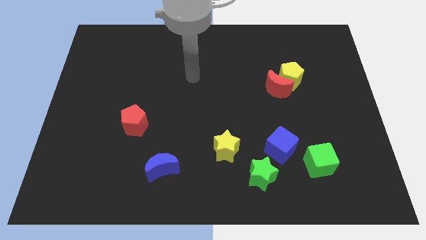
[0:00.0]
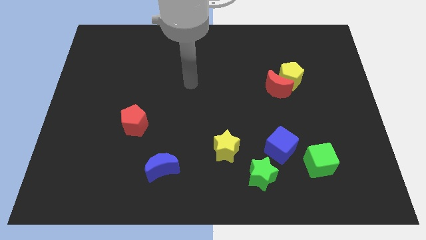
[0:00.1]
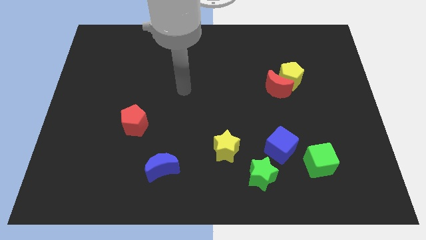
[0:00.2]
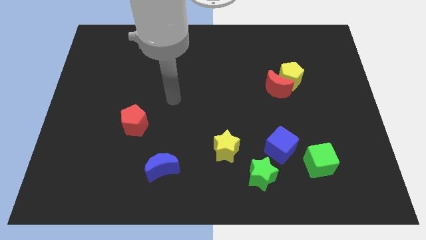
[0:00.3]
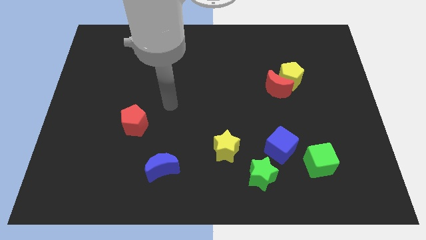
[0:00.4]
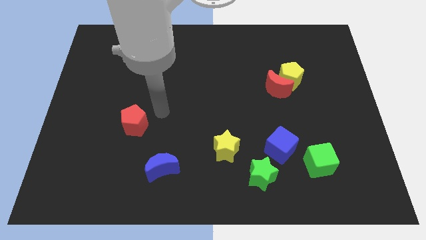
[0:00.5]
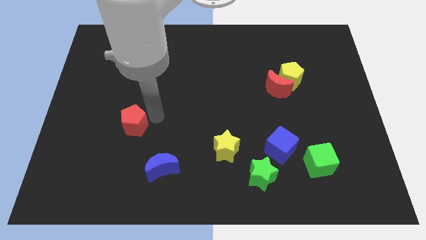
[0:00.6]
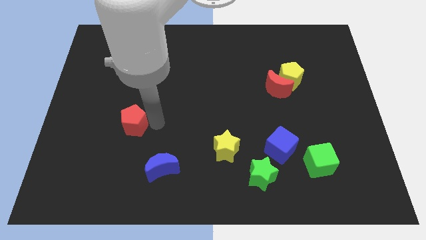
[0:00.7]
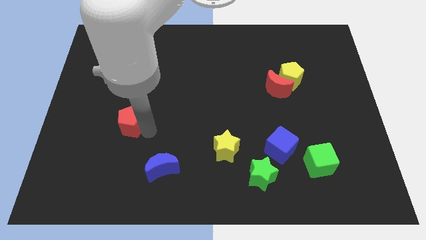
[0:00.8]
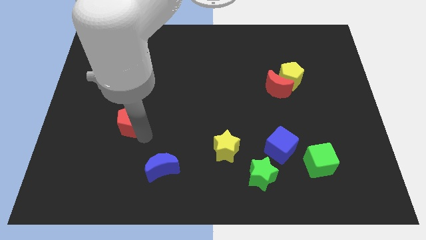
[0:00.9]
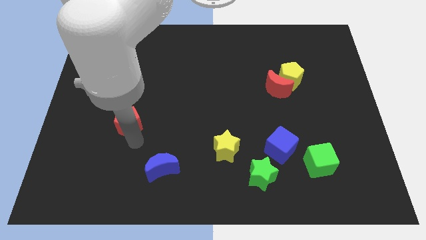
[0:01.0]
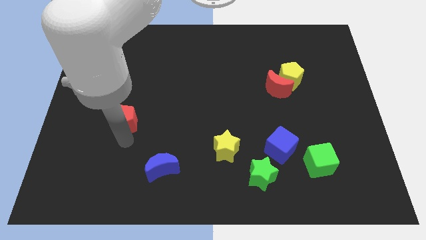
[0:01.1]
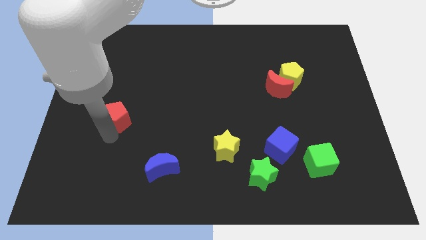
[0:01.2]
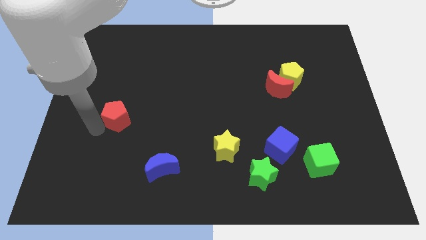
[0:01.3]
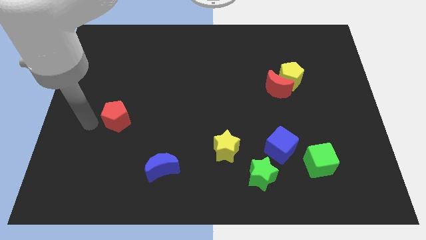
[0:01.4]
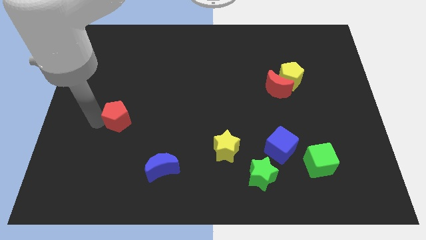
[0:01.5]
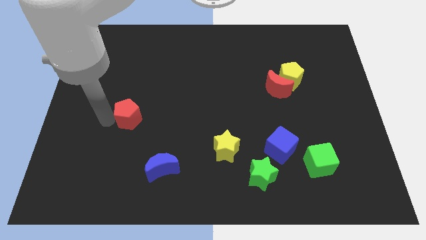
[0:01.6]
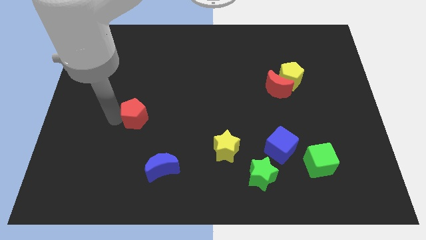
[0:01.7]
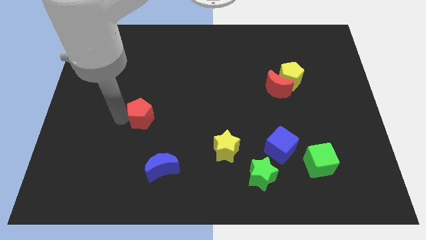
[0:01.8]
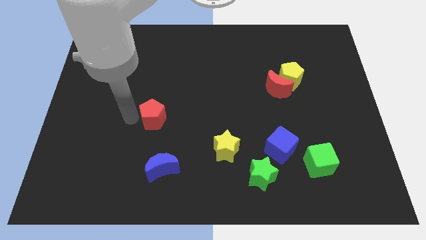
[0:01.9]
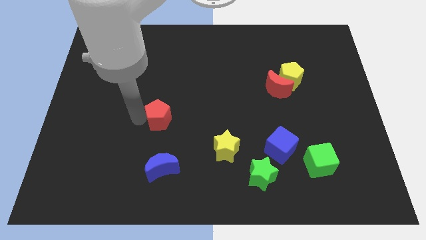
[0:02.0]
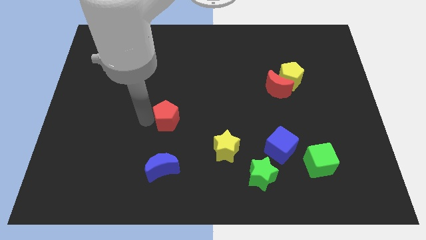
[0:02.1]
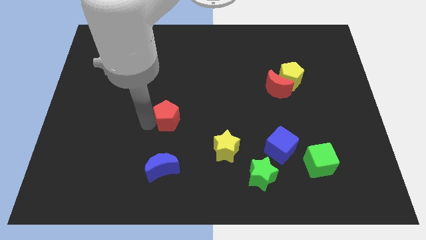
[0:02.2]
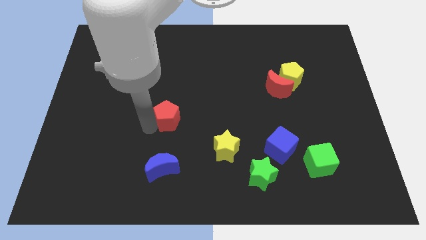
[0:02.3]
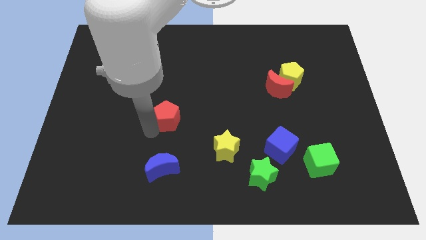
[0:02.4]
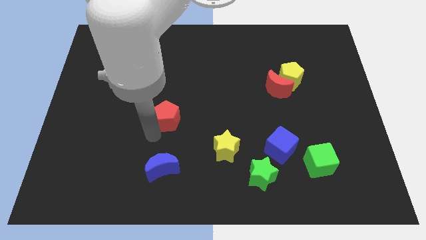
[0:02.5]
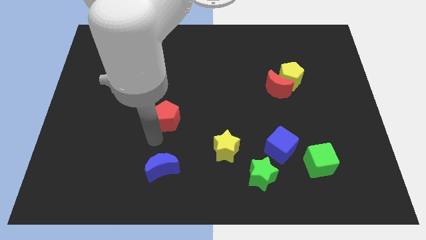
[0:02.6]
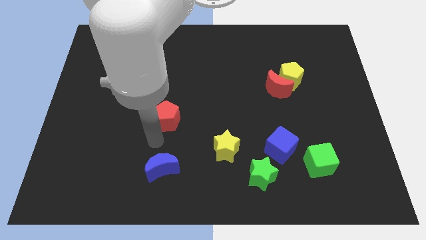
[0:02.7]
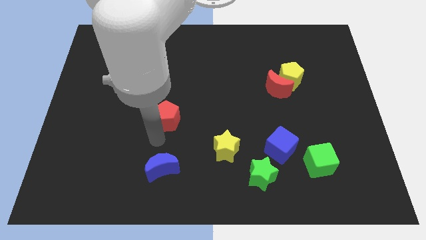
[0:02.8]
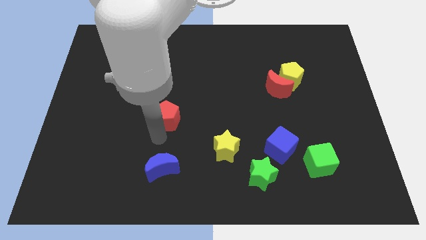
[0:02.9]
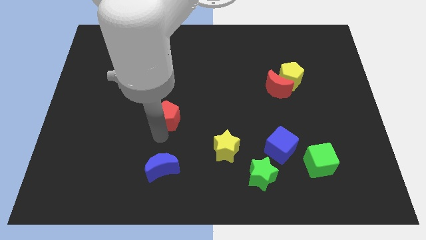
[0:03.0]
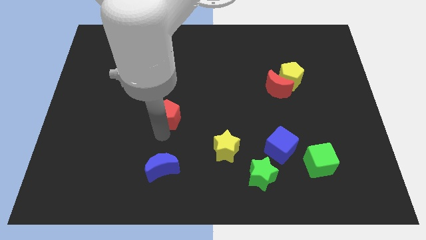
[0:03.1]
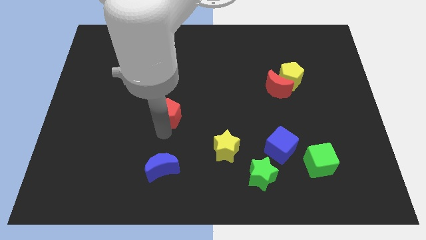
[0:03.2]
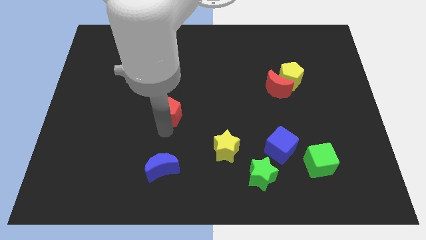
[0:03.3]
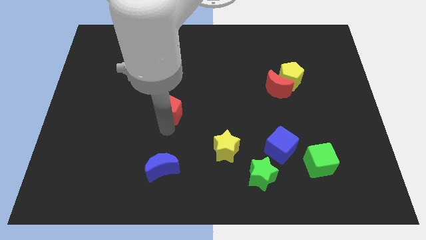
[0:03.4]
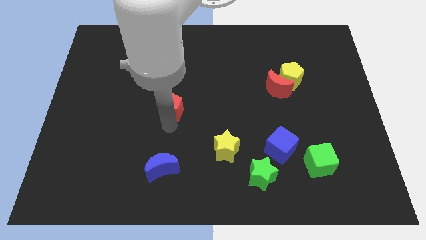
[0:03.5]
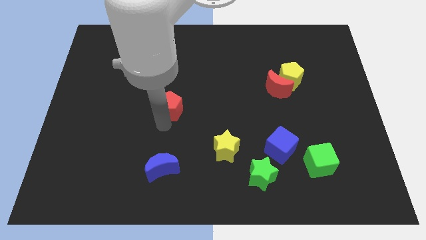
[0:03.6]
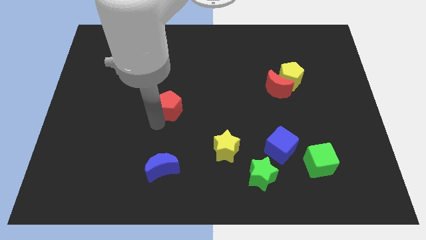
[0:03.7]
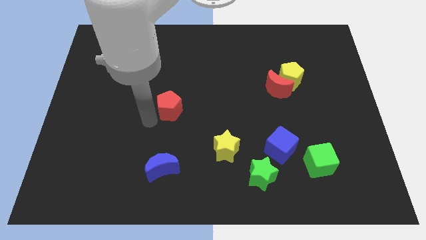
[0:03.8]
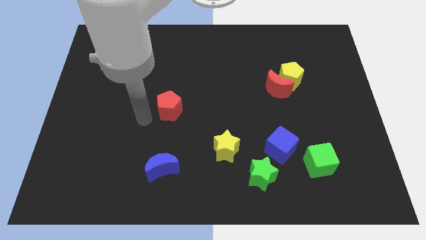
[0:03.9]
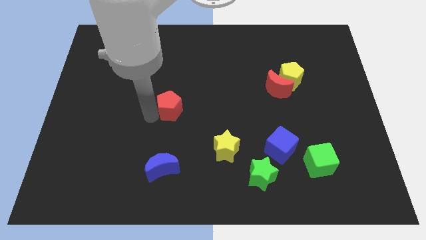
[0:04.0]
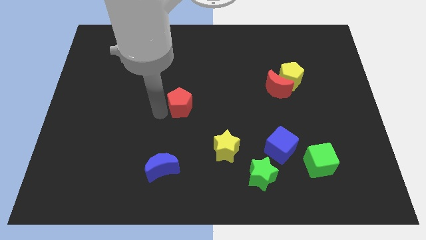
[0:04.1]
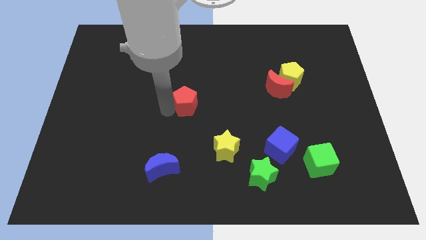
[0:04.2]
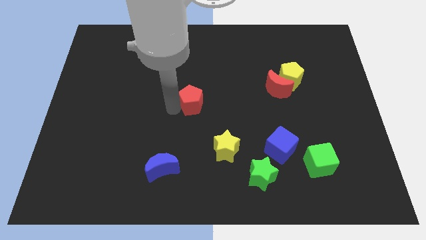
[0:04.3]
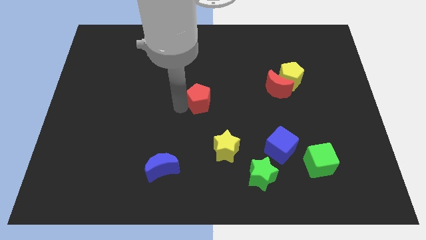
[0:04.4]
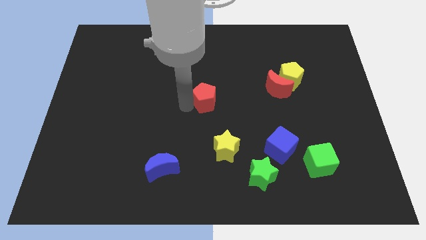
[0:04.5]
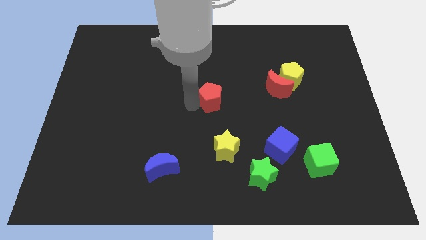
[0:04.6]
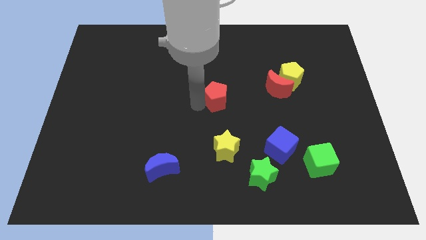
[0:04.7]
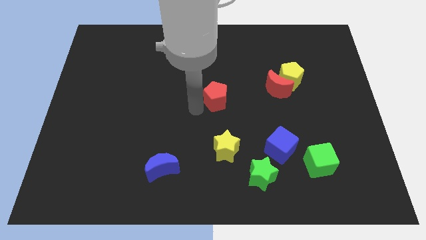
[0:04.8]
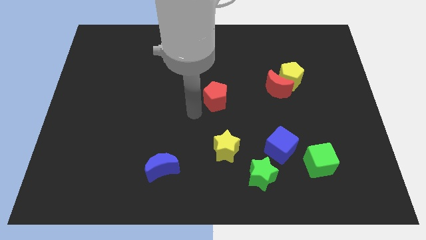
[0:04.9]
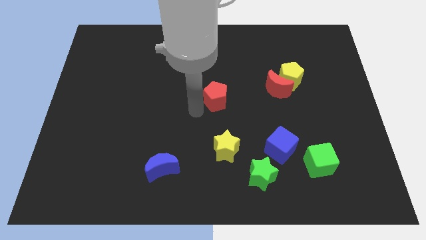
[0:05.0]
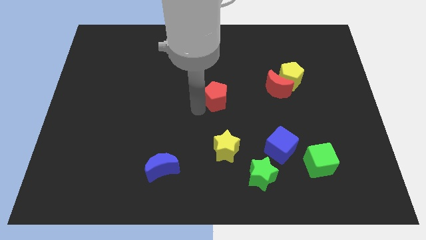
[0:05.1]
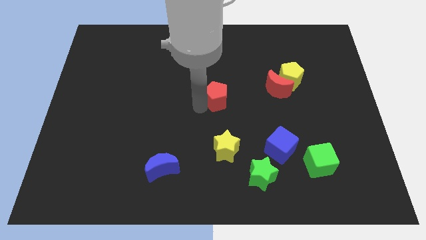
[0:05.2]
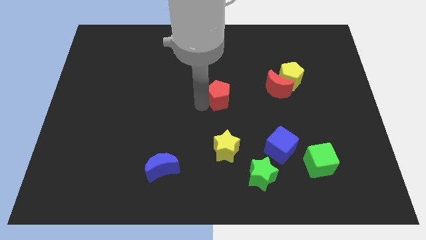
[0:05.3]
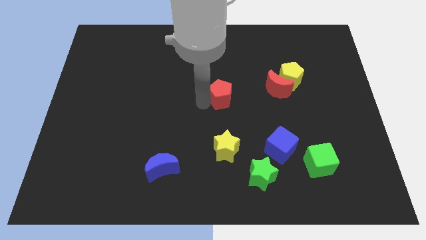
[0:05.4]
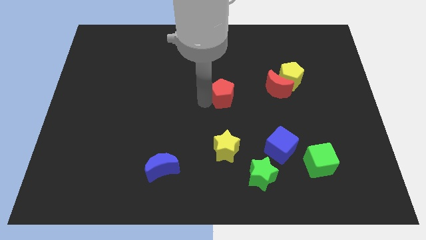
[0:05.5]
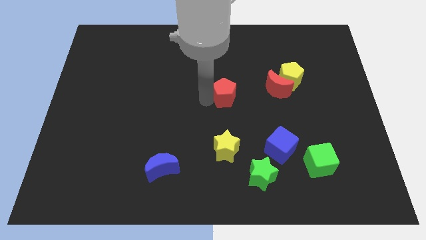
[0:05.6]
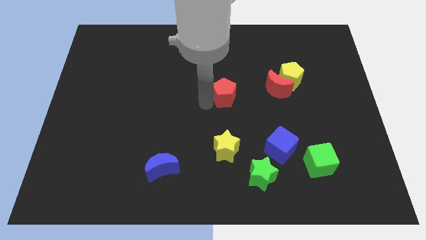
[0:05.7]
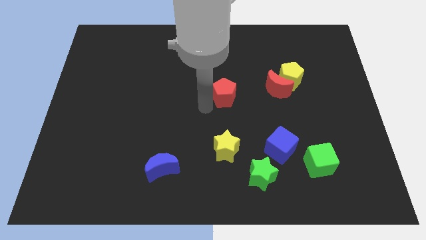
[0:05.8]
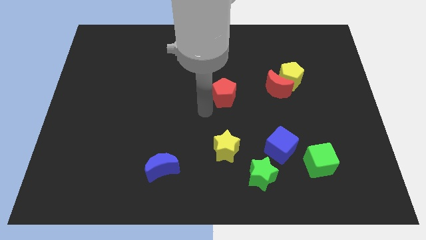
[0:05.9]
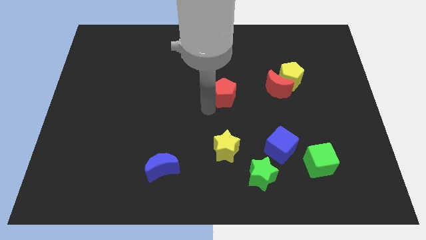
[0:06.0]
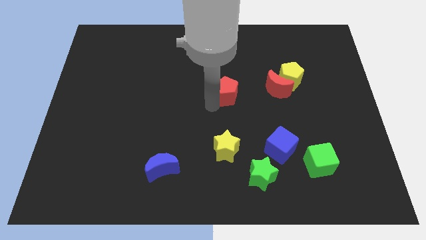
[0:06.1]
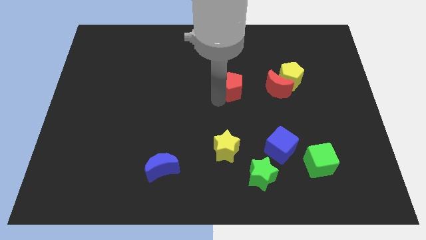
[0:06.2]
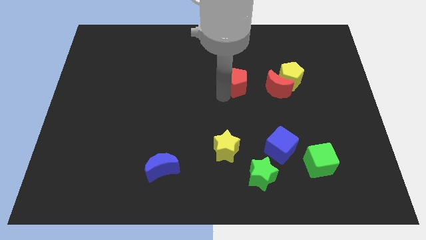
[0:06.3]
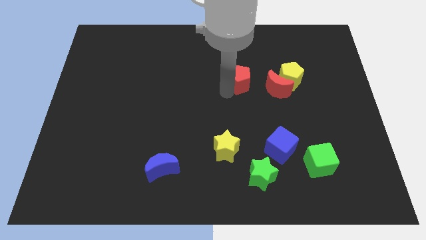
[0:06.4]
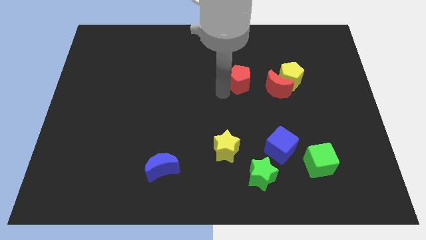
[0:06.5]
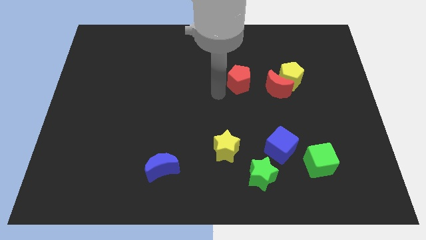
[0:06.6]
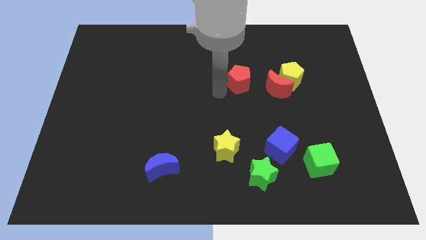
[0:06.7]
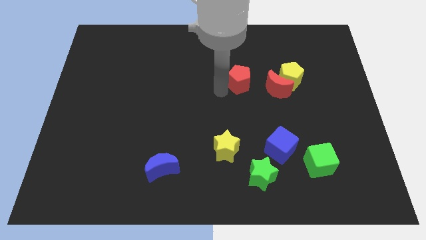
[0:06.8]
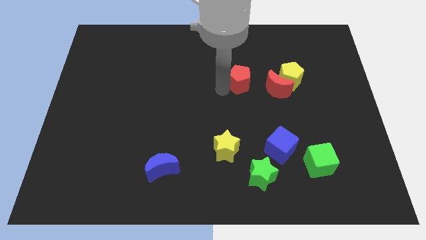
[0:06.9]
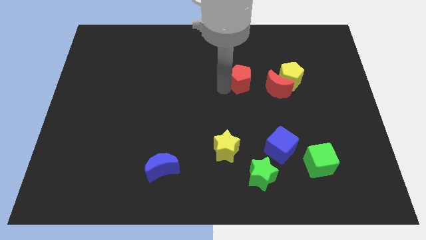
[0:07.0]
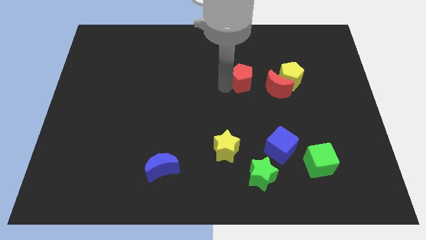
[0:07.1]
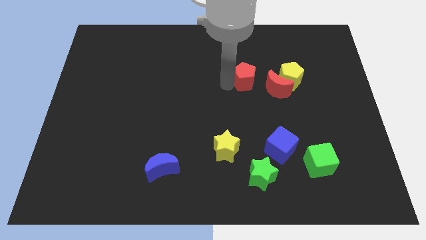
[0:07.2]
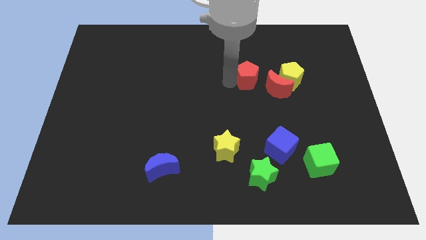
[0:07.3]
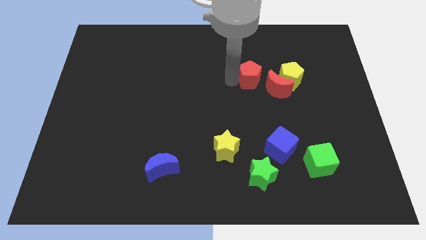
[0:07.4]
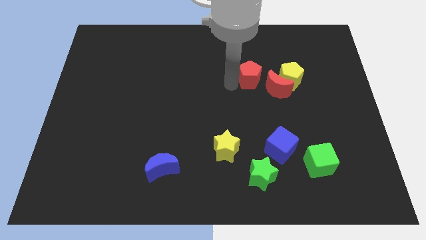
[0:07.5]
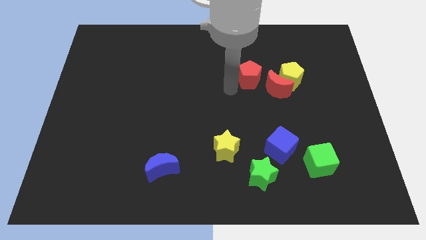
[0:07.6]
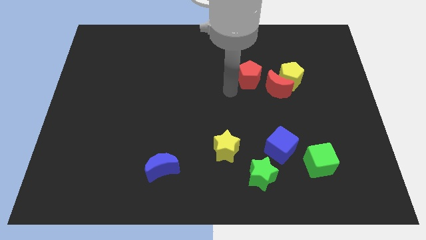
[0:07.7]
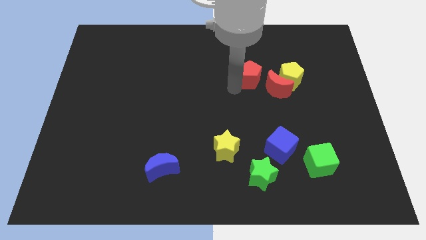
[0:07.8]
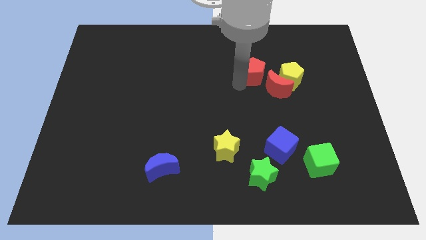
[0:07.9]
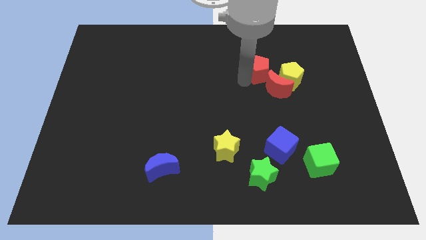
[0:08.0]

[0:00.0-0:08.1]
push the red pentagon to the top left side of the yellow pentagon
